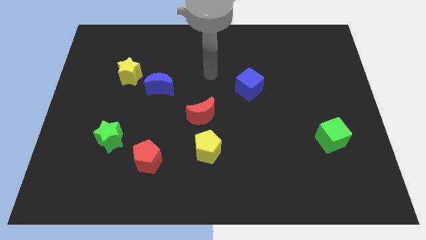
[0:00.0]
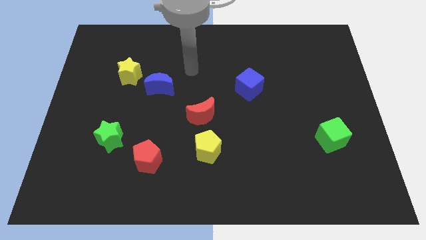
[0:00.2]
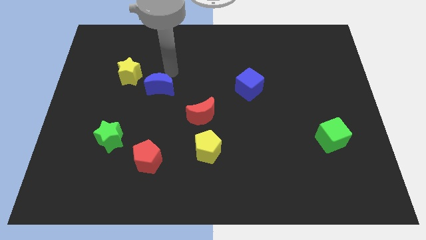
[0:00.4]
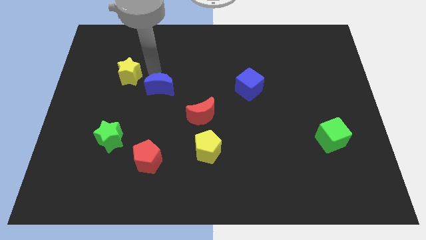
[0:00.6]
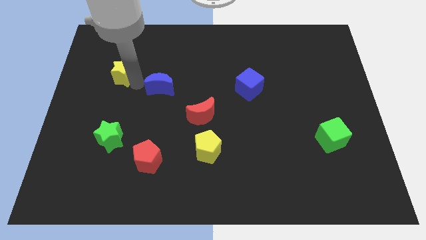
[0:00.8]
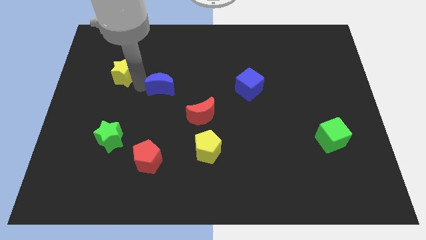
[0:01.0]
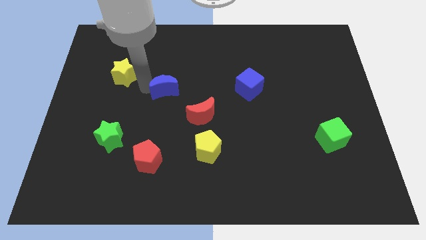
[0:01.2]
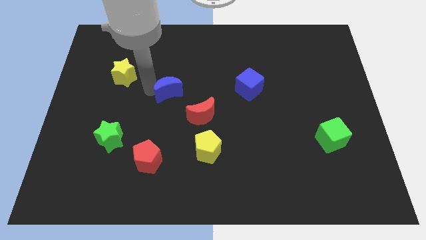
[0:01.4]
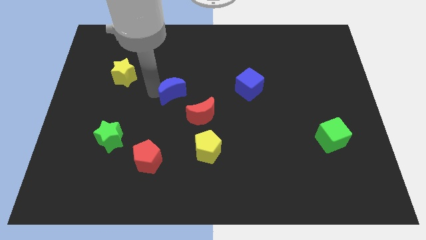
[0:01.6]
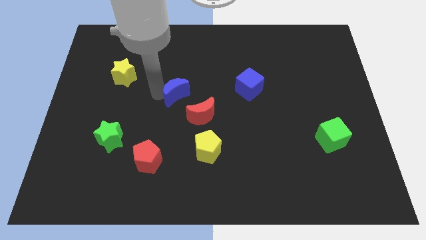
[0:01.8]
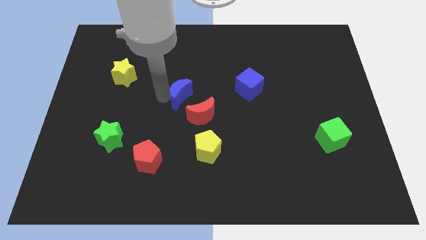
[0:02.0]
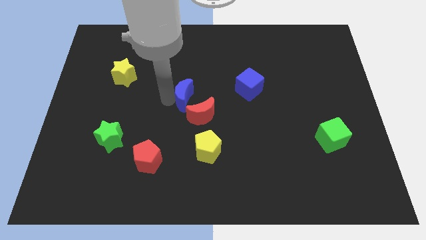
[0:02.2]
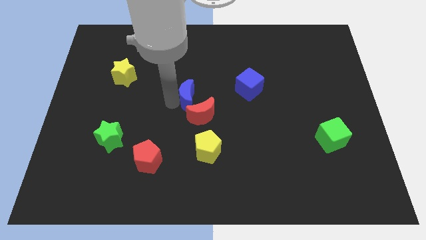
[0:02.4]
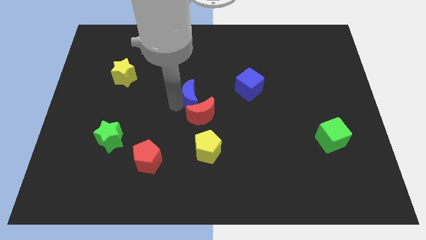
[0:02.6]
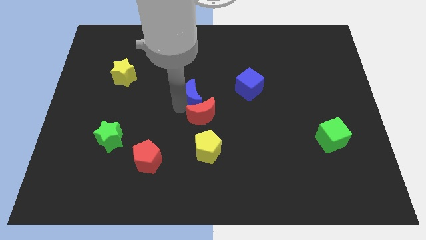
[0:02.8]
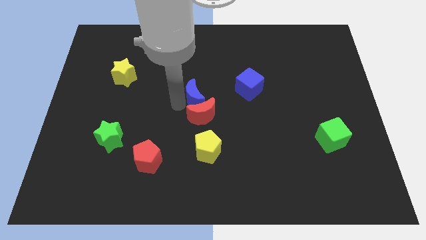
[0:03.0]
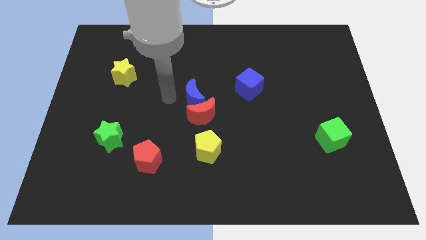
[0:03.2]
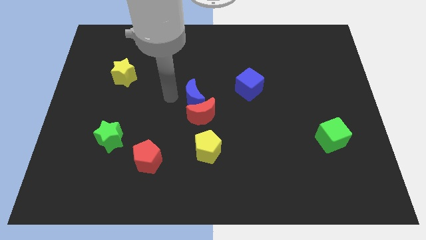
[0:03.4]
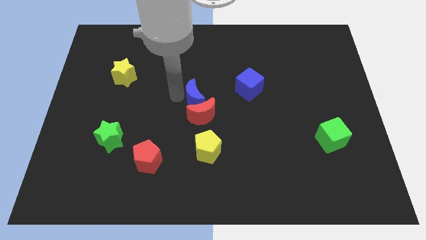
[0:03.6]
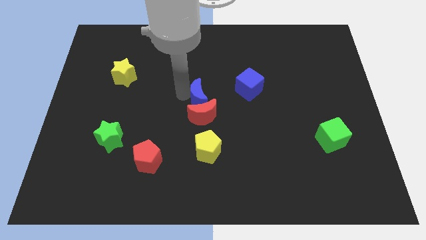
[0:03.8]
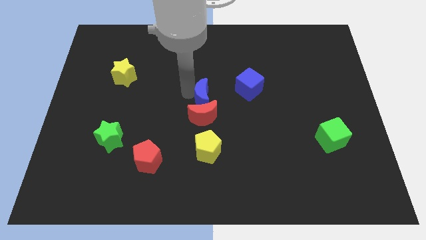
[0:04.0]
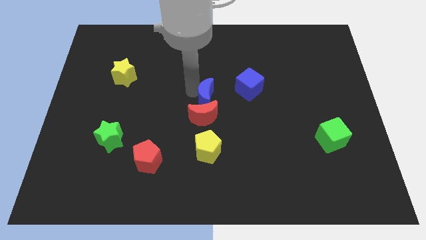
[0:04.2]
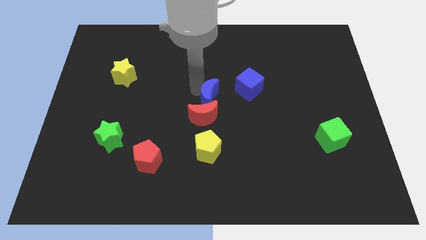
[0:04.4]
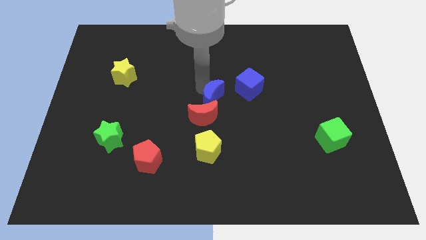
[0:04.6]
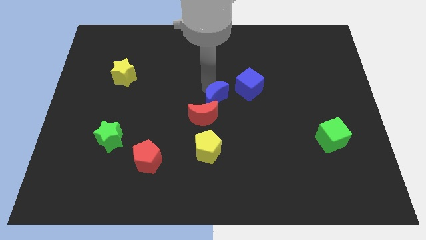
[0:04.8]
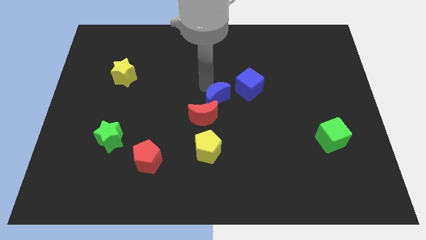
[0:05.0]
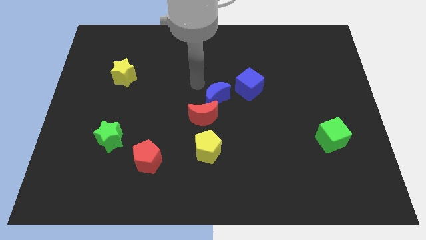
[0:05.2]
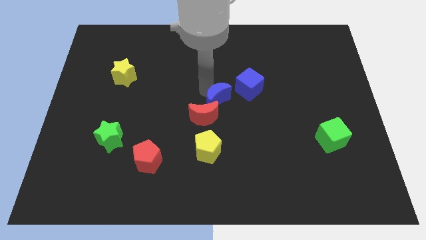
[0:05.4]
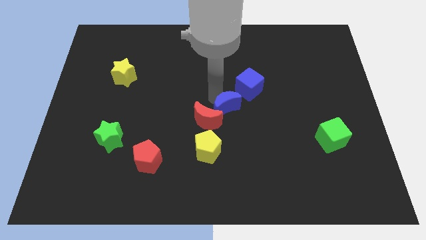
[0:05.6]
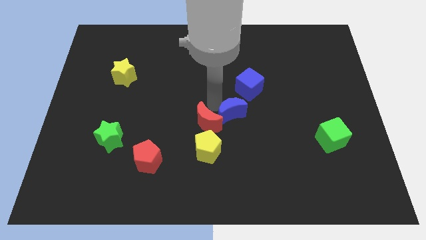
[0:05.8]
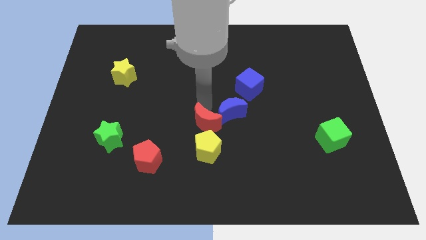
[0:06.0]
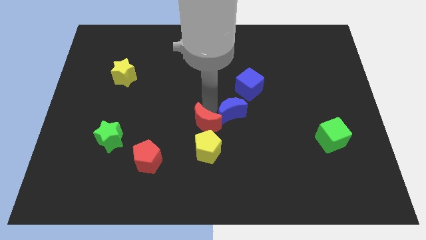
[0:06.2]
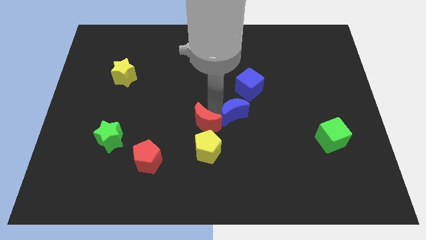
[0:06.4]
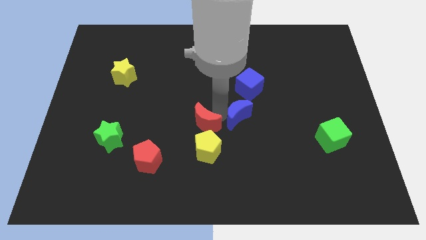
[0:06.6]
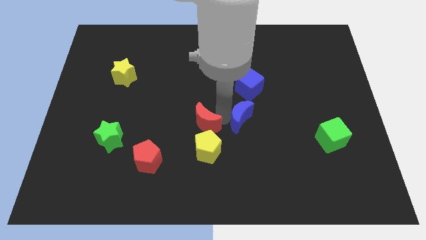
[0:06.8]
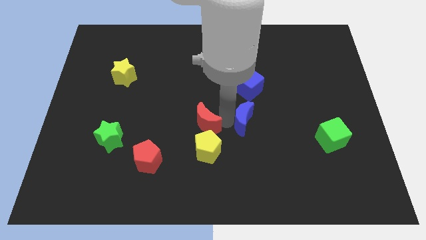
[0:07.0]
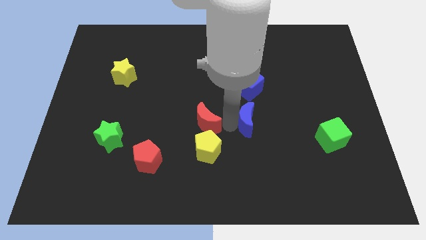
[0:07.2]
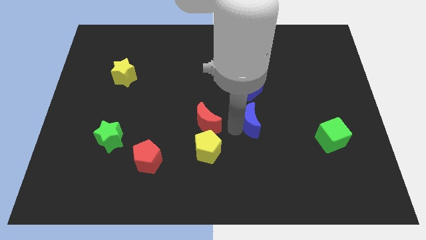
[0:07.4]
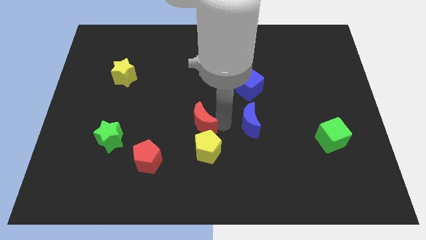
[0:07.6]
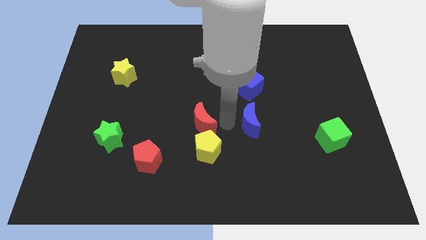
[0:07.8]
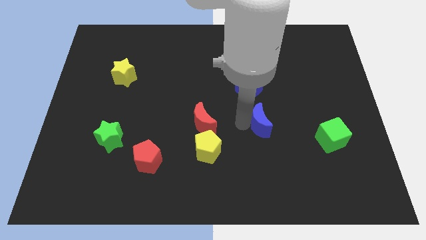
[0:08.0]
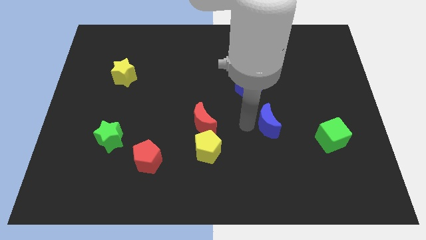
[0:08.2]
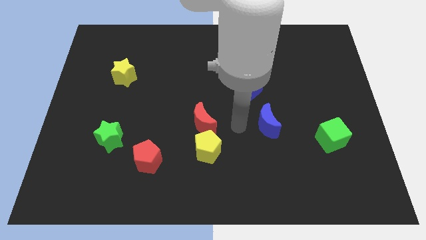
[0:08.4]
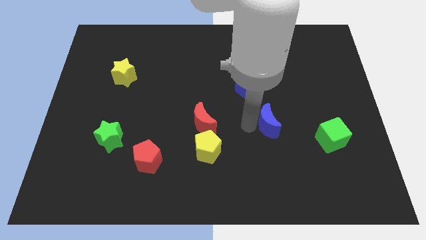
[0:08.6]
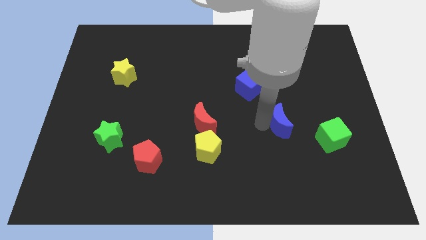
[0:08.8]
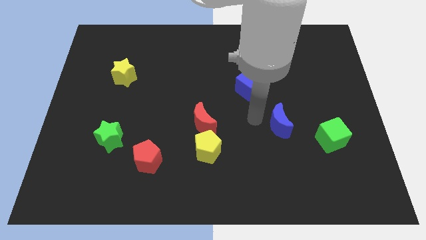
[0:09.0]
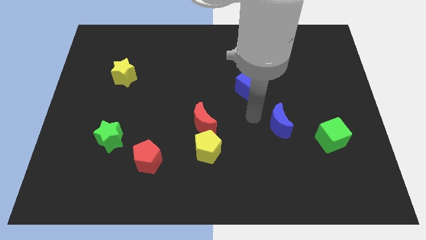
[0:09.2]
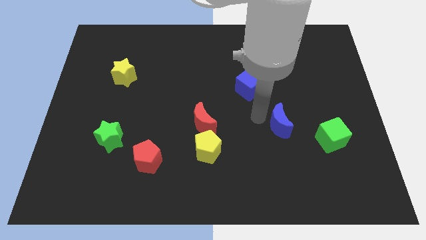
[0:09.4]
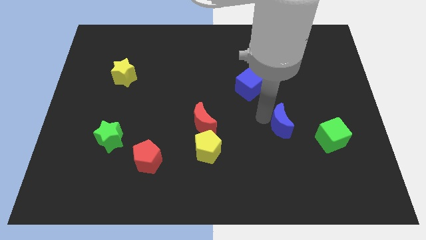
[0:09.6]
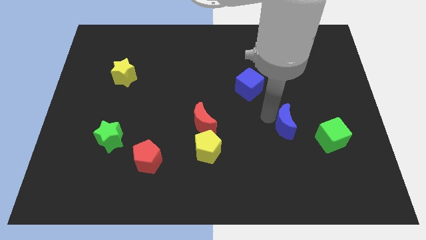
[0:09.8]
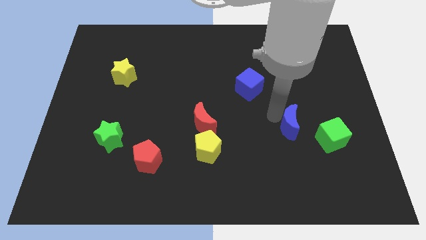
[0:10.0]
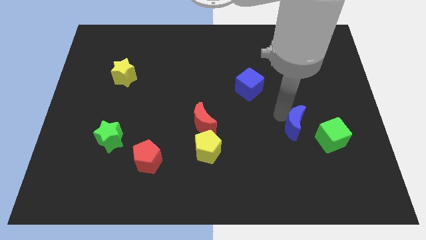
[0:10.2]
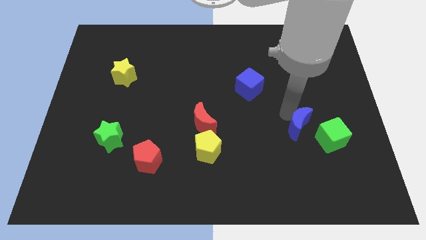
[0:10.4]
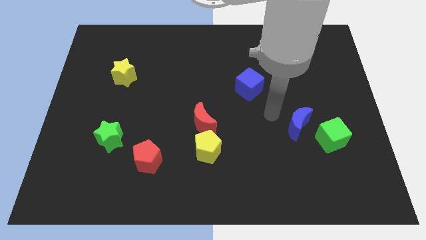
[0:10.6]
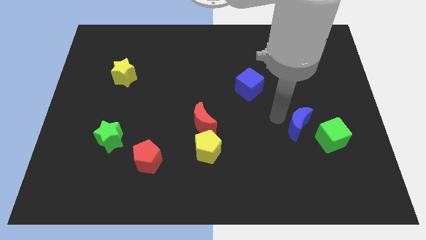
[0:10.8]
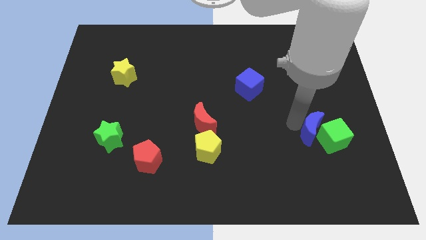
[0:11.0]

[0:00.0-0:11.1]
push the blue moon close to the green cube
